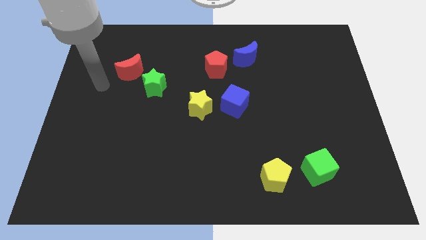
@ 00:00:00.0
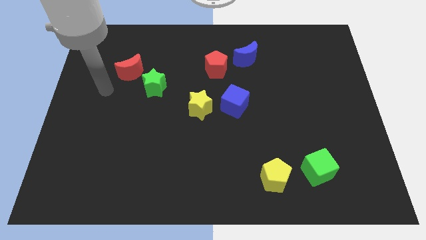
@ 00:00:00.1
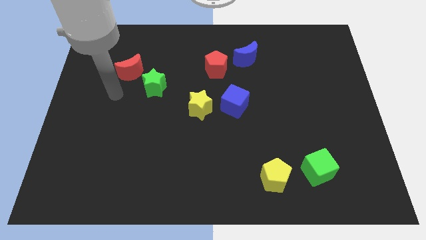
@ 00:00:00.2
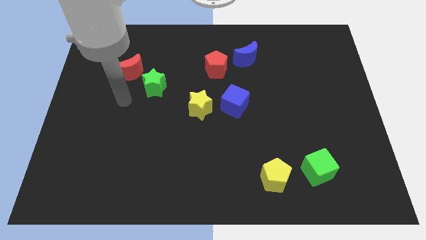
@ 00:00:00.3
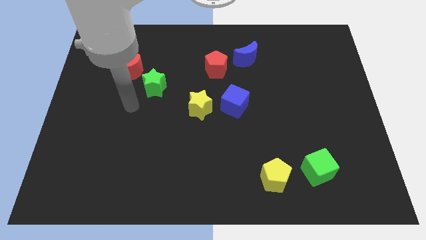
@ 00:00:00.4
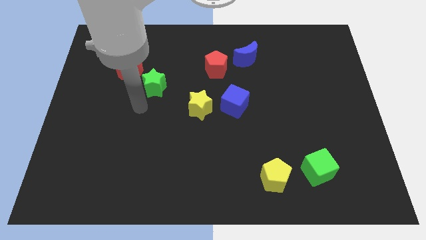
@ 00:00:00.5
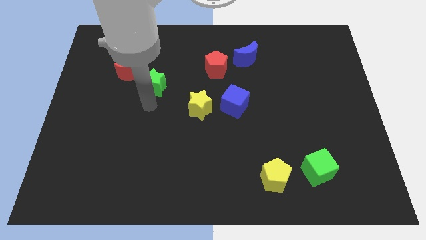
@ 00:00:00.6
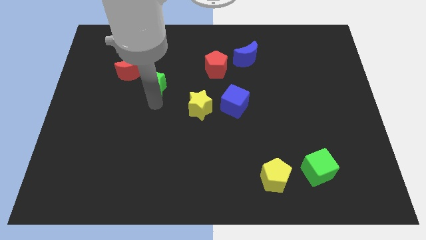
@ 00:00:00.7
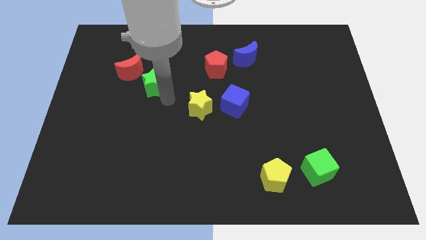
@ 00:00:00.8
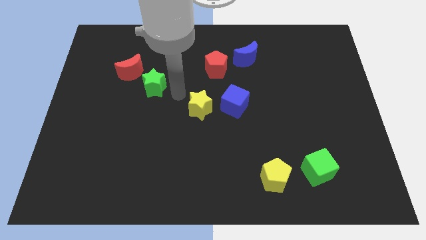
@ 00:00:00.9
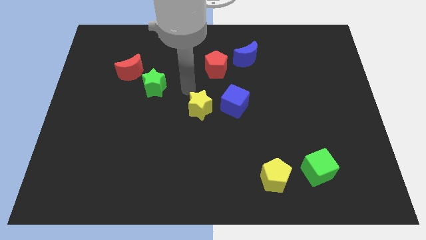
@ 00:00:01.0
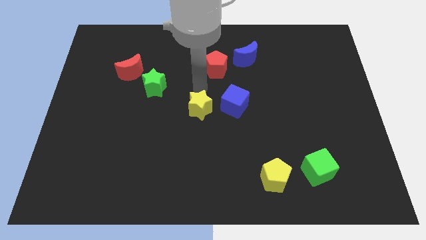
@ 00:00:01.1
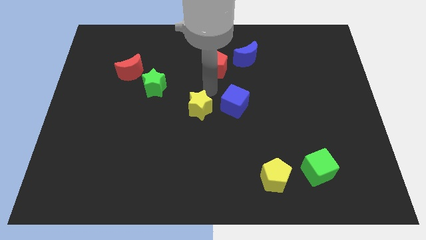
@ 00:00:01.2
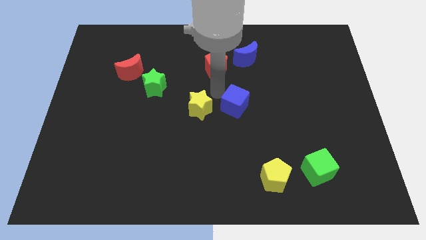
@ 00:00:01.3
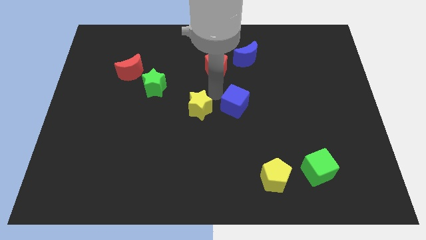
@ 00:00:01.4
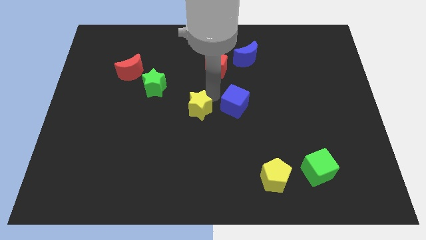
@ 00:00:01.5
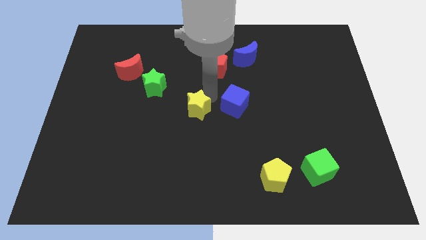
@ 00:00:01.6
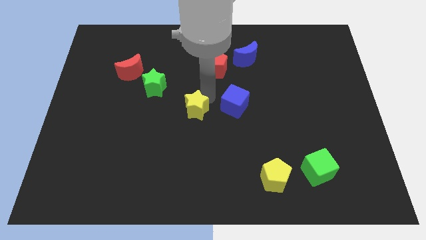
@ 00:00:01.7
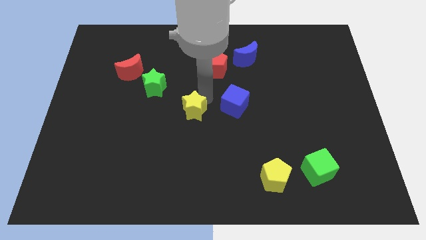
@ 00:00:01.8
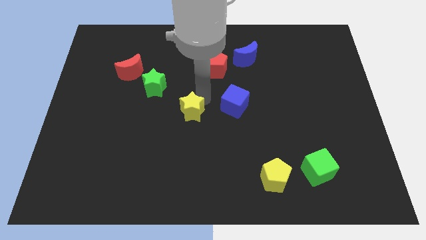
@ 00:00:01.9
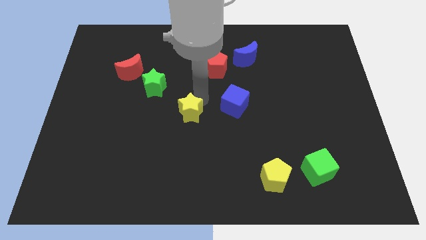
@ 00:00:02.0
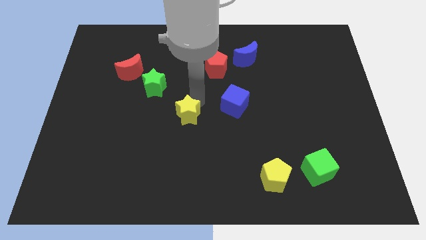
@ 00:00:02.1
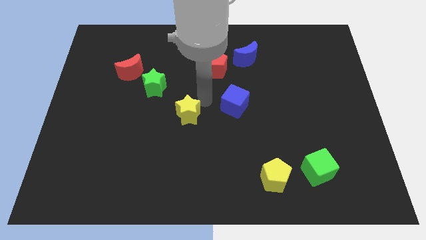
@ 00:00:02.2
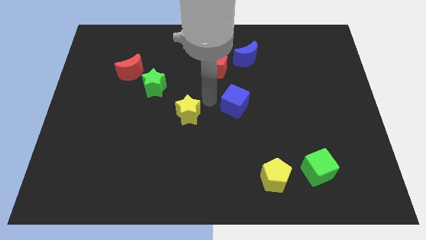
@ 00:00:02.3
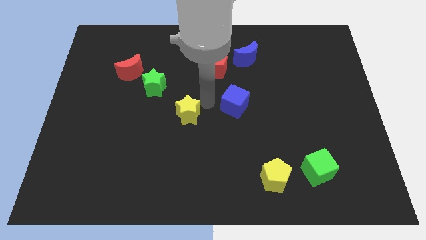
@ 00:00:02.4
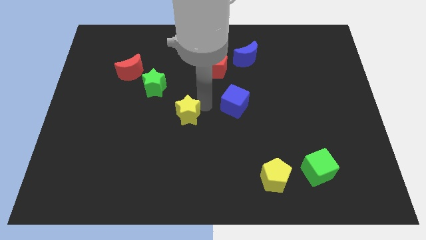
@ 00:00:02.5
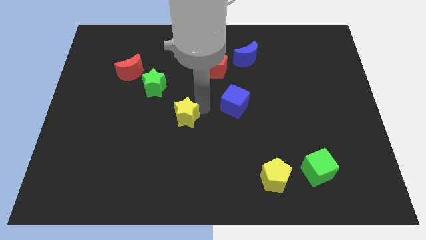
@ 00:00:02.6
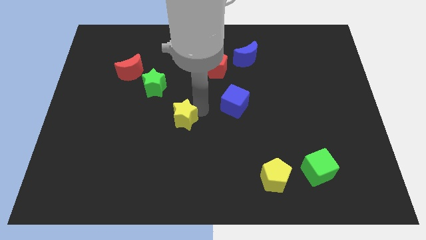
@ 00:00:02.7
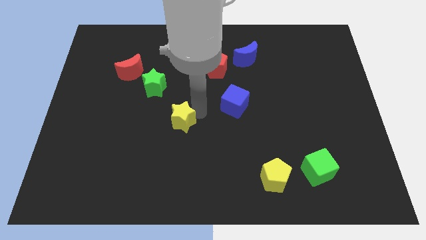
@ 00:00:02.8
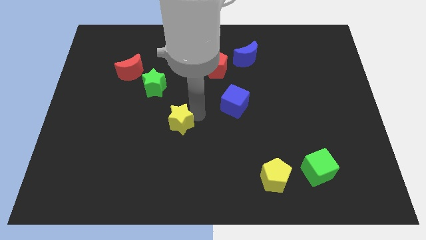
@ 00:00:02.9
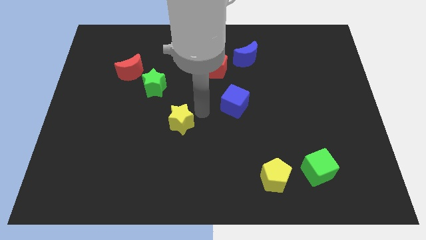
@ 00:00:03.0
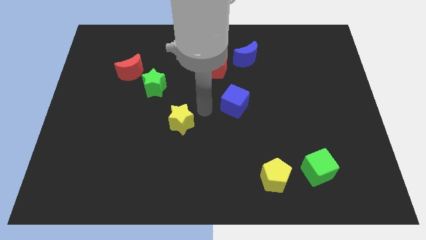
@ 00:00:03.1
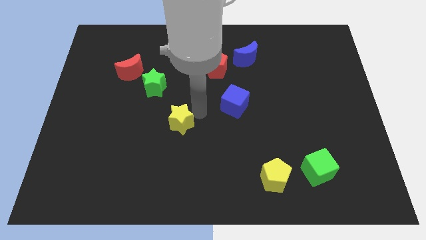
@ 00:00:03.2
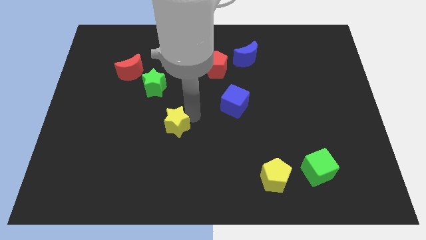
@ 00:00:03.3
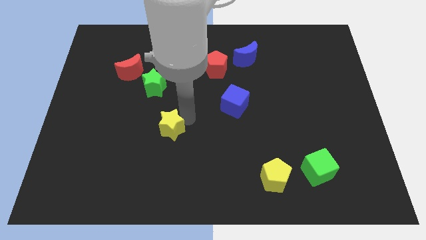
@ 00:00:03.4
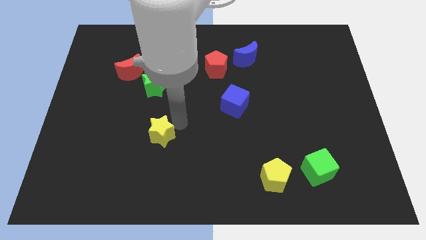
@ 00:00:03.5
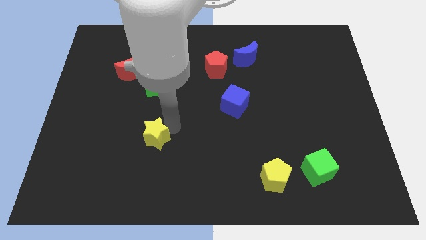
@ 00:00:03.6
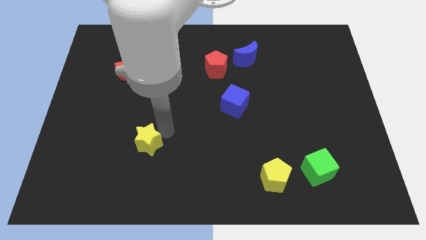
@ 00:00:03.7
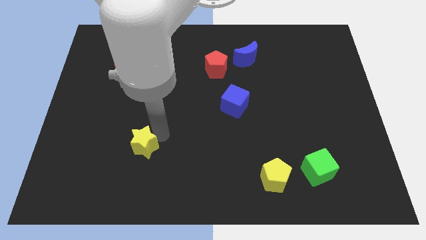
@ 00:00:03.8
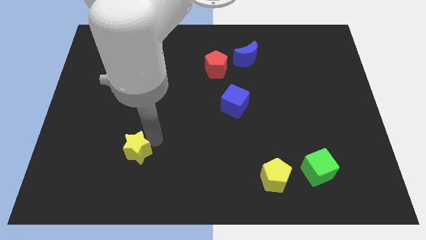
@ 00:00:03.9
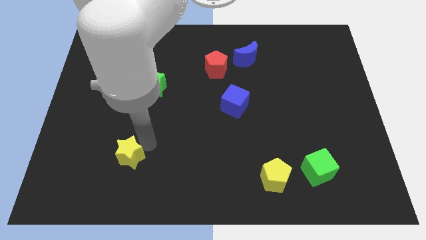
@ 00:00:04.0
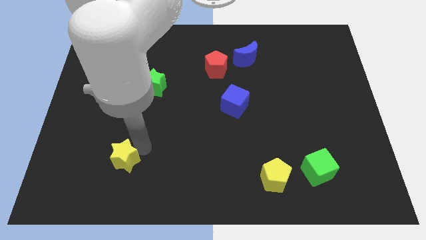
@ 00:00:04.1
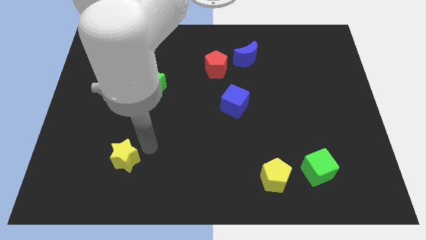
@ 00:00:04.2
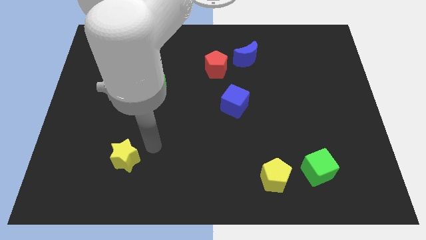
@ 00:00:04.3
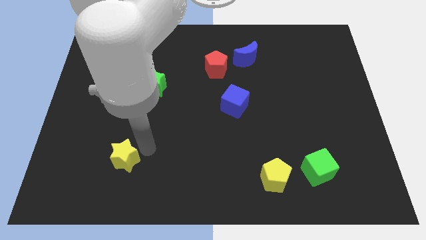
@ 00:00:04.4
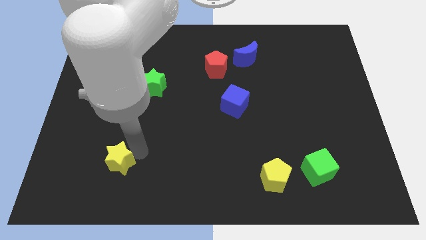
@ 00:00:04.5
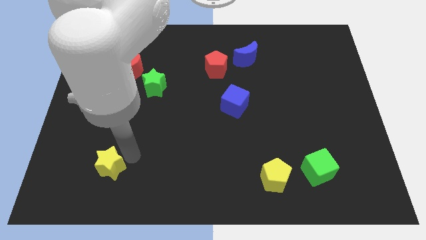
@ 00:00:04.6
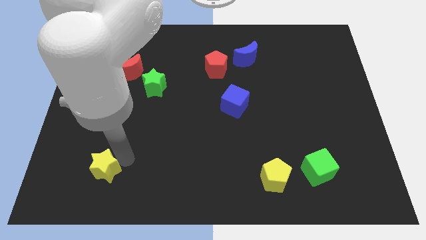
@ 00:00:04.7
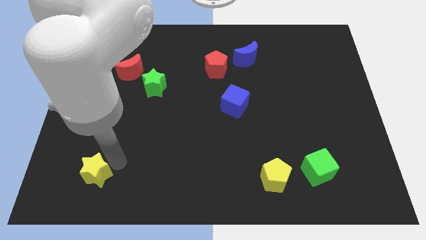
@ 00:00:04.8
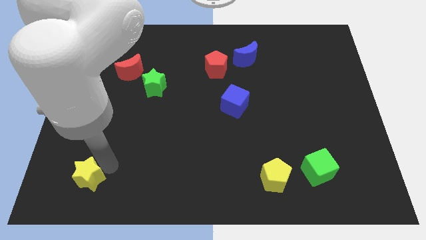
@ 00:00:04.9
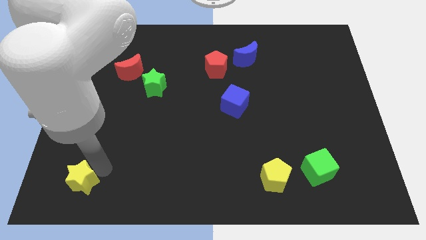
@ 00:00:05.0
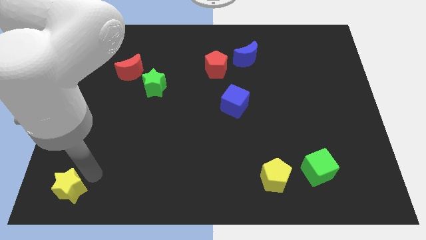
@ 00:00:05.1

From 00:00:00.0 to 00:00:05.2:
slide the yellow star to the lower left corner
